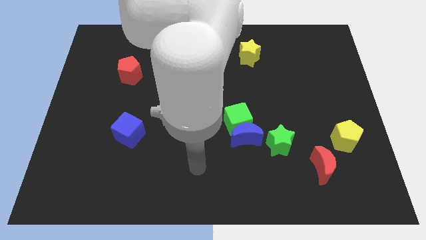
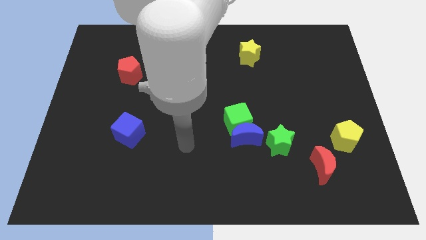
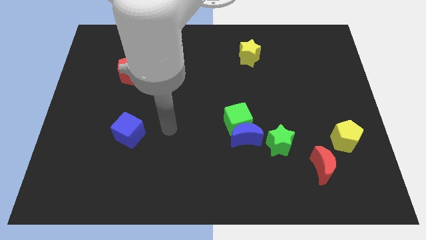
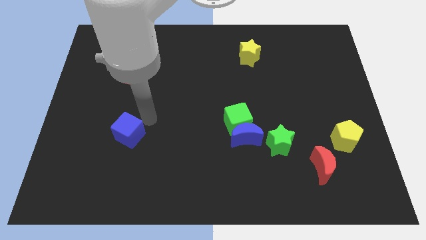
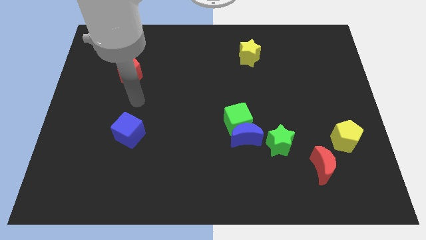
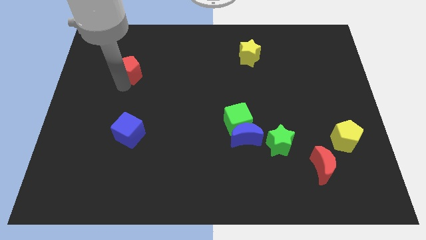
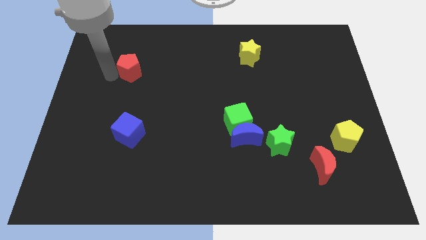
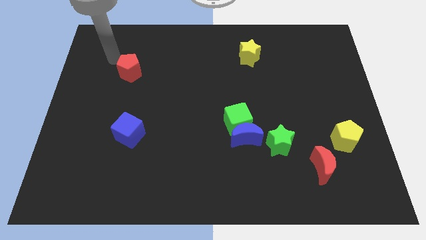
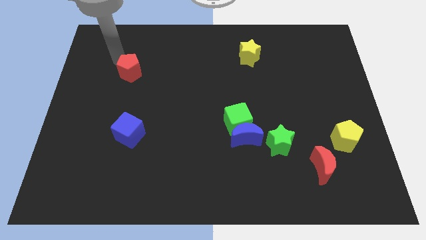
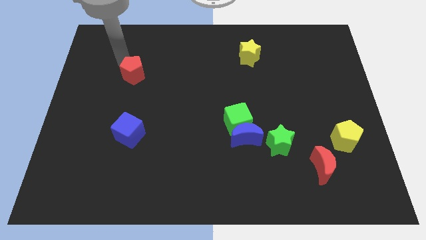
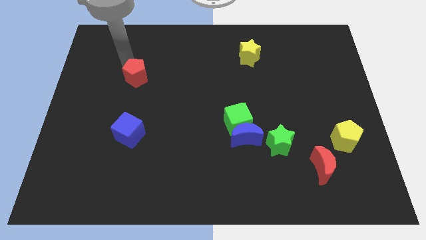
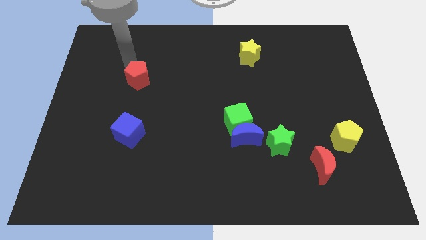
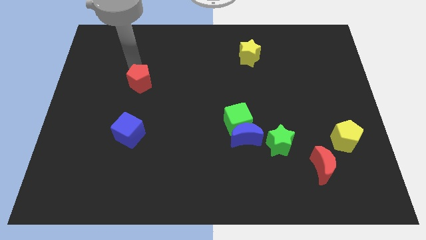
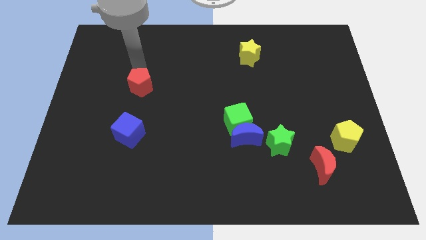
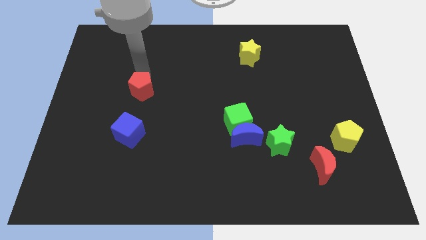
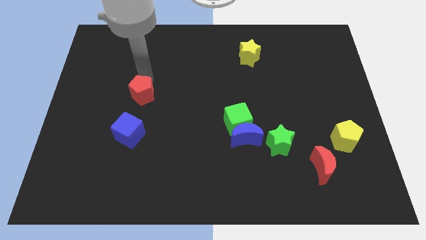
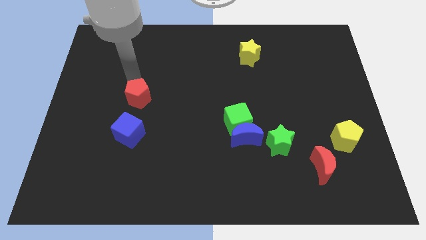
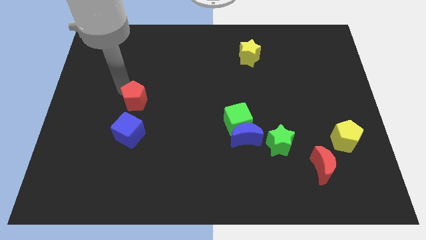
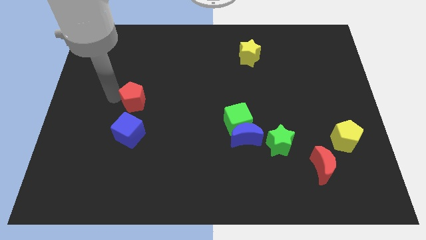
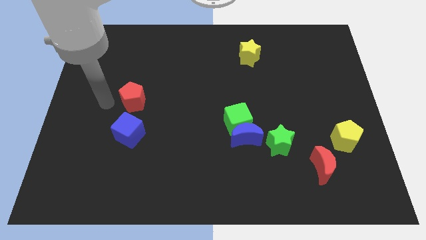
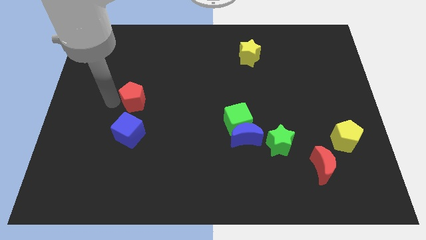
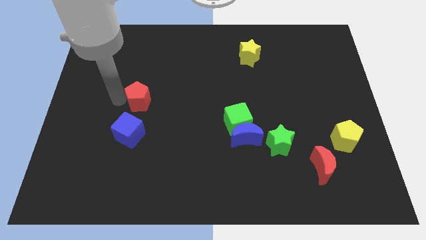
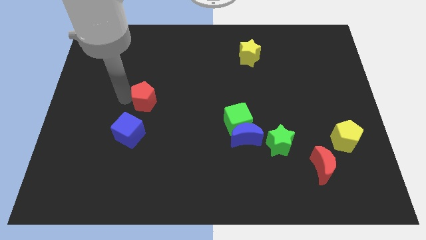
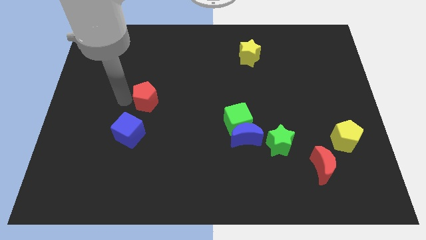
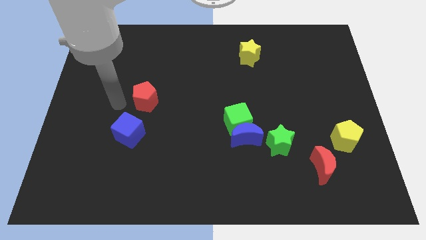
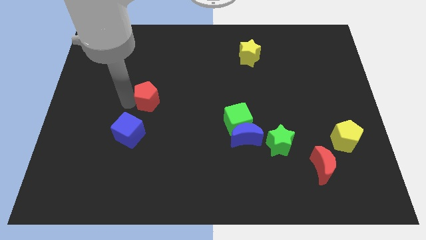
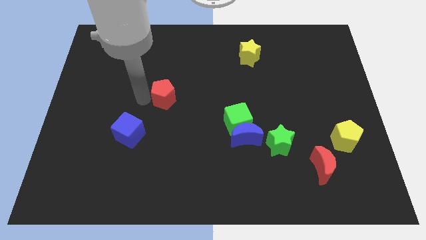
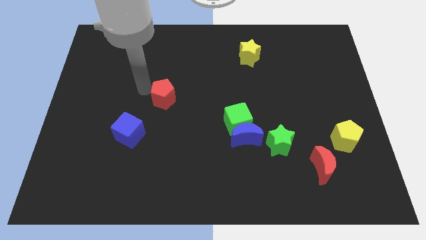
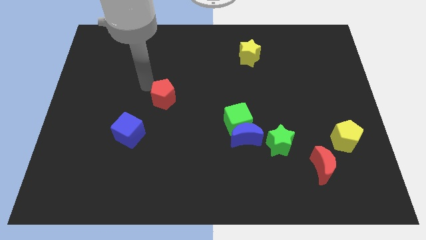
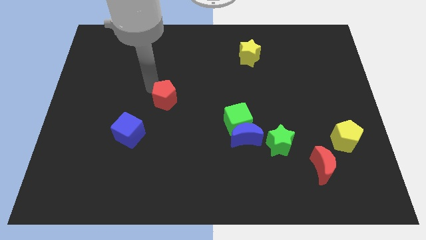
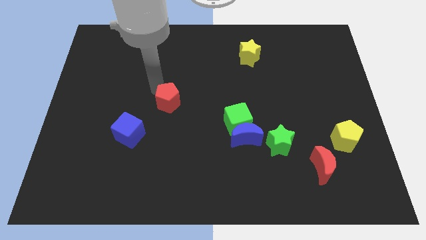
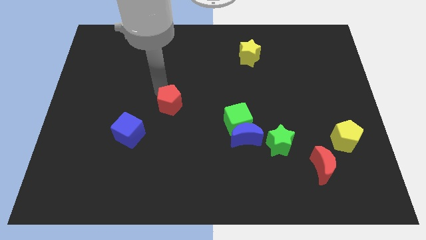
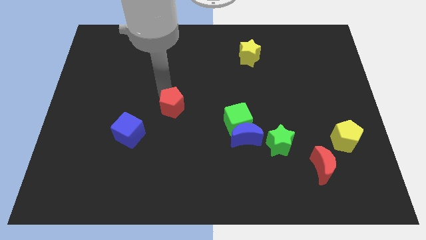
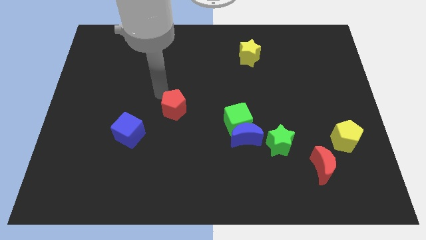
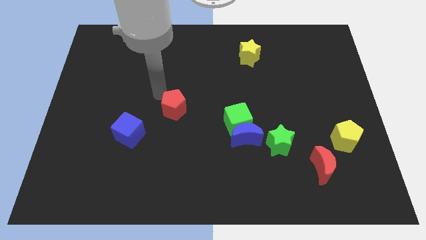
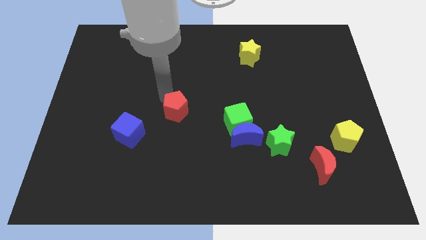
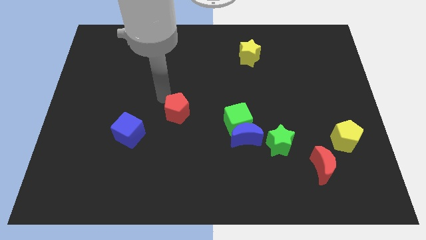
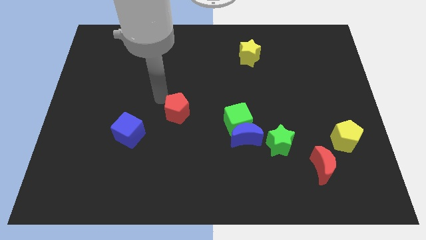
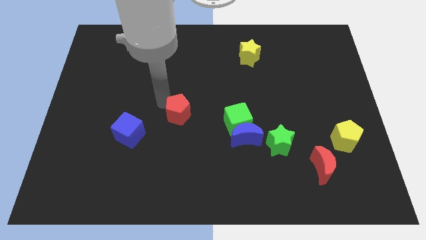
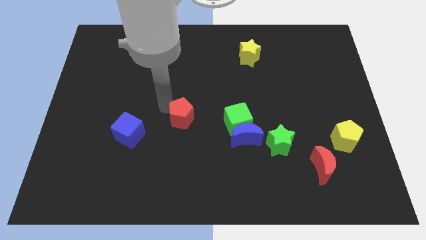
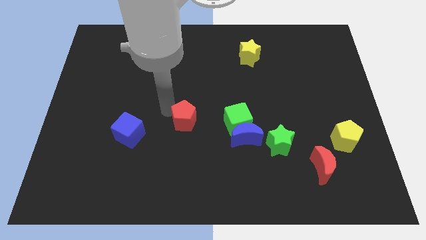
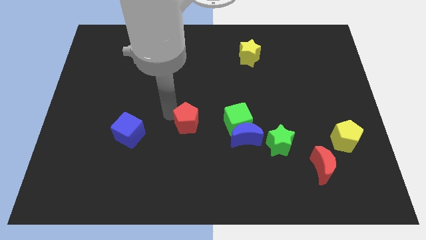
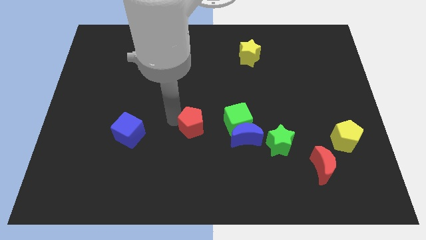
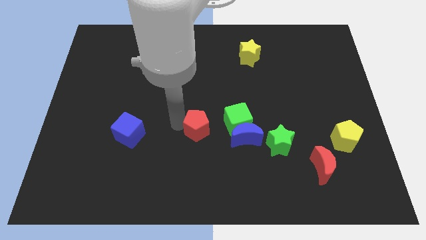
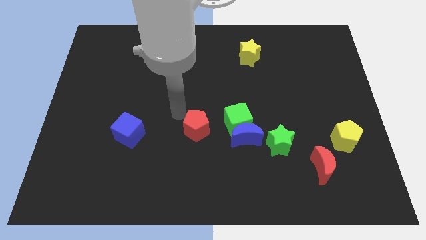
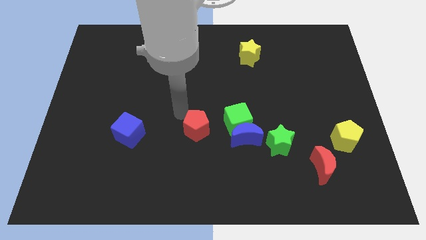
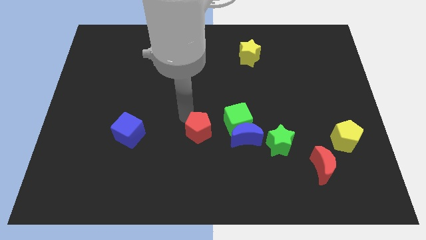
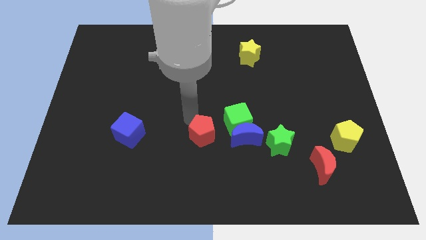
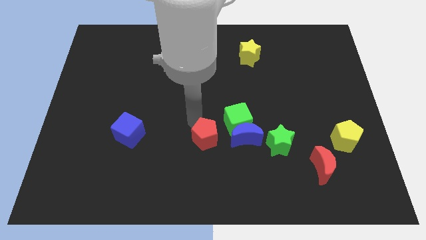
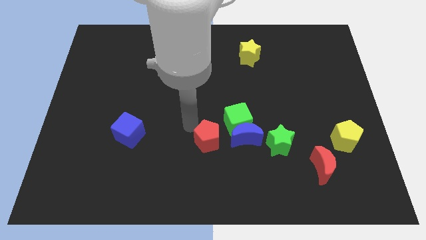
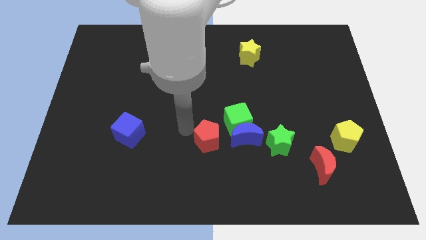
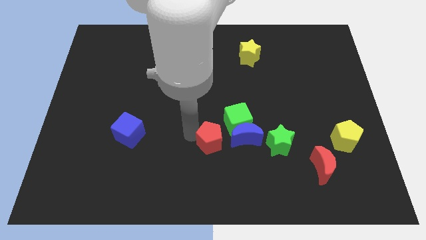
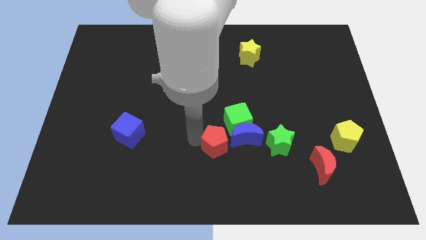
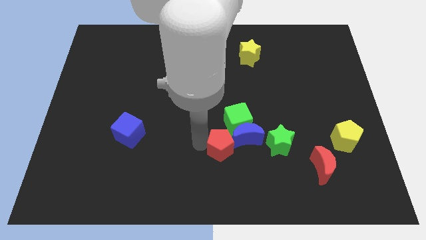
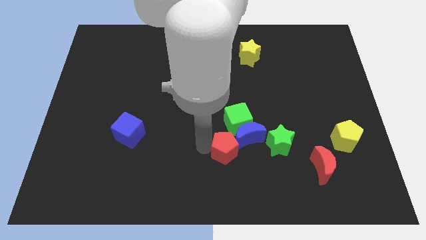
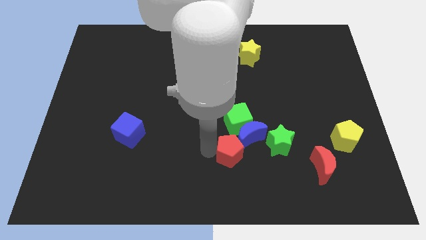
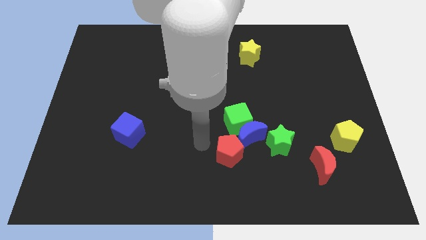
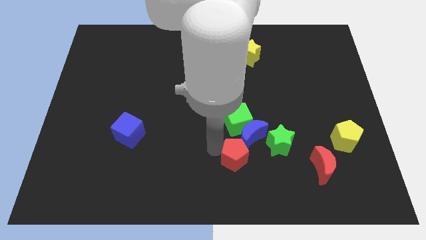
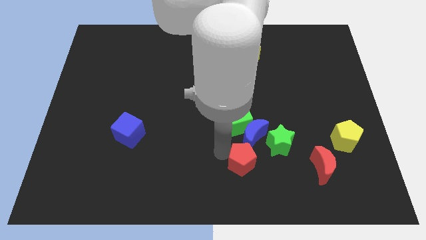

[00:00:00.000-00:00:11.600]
put the red pentagon diagonally down and to the left of the green star

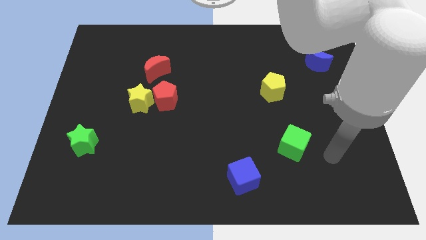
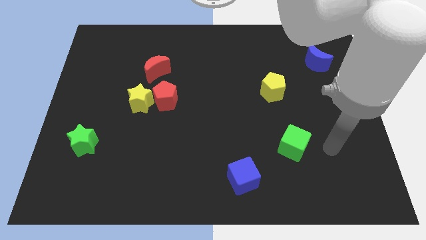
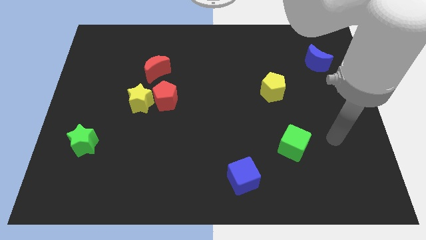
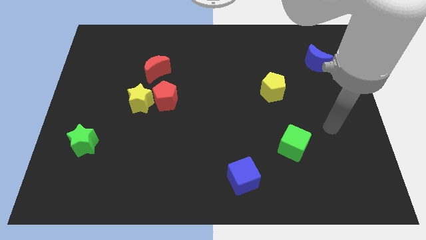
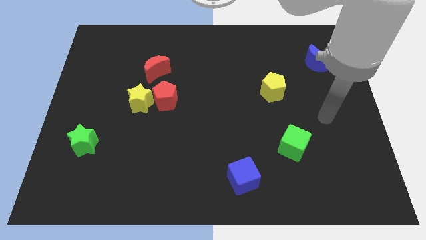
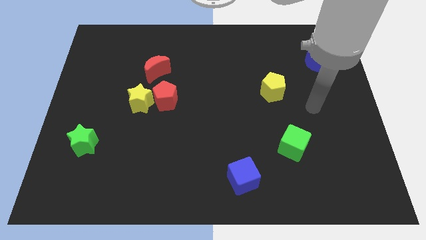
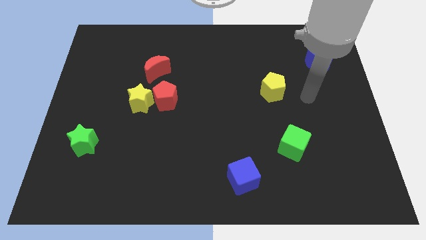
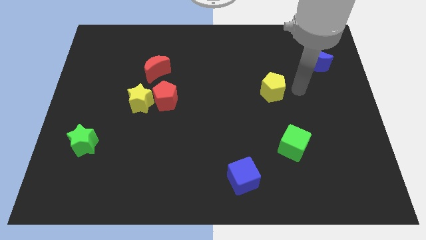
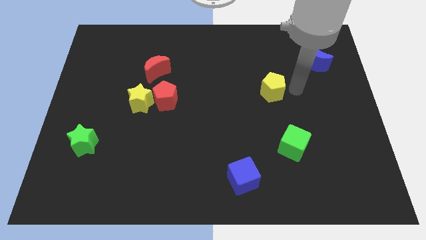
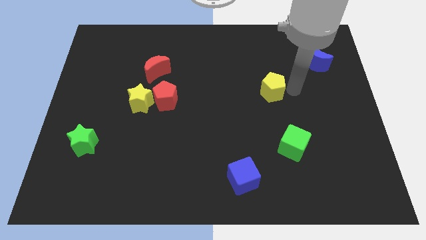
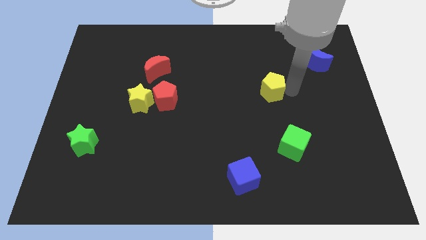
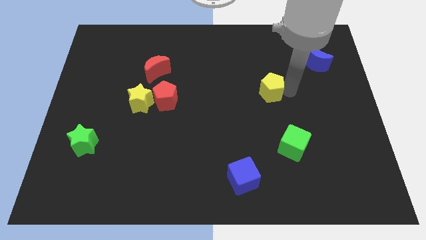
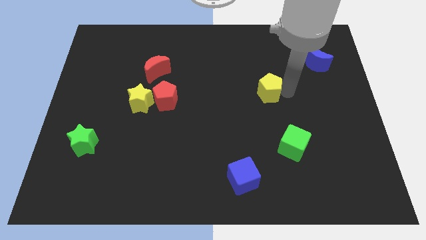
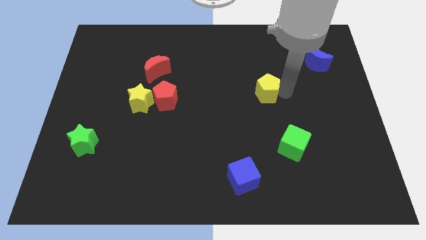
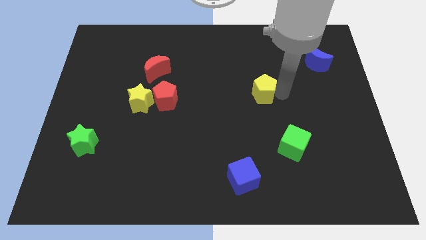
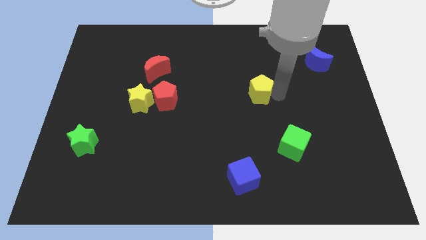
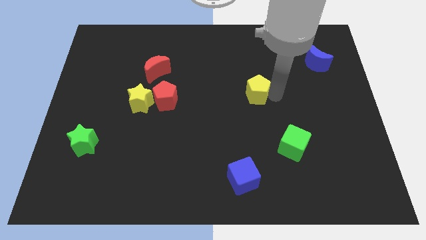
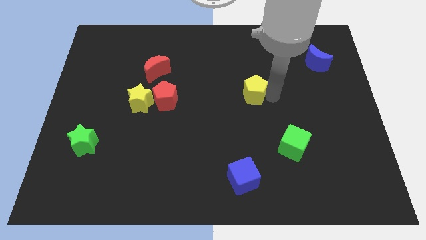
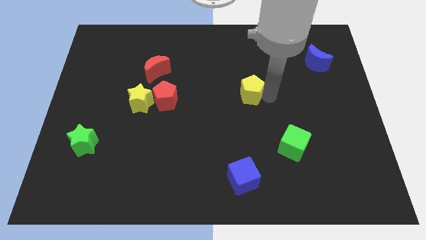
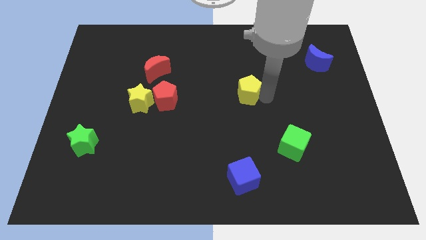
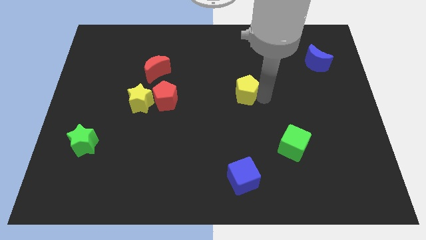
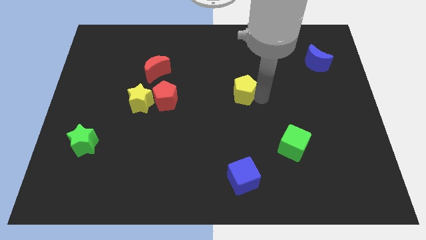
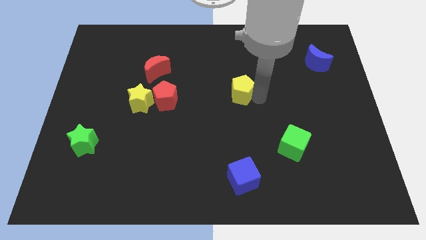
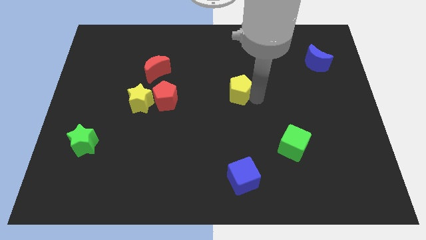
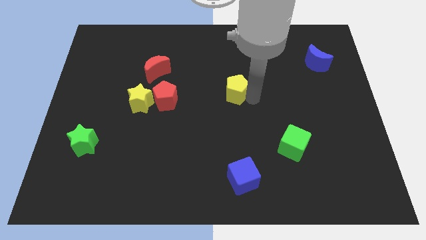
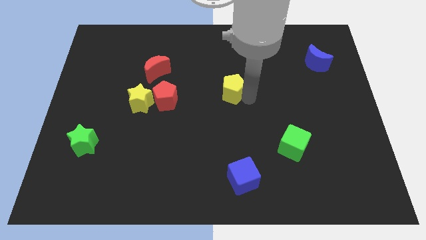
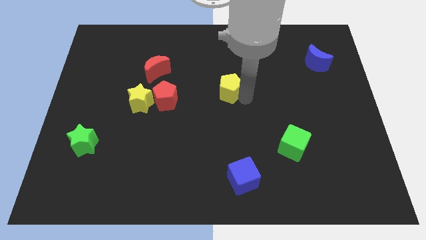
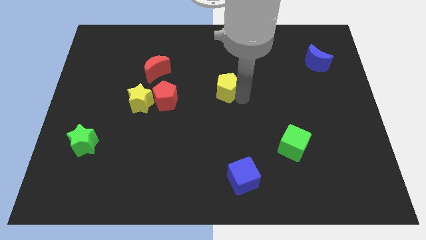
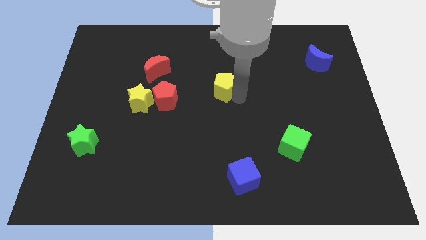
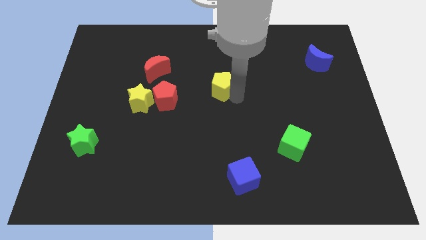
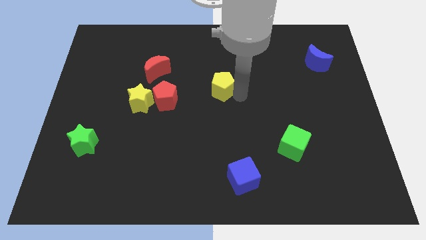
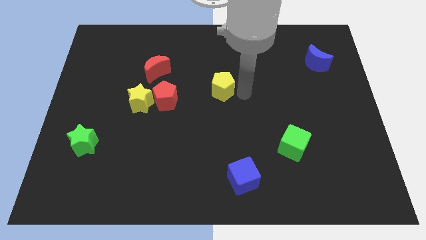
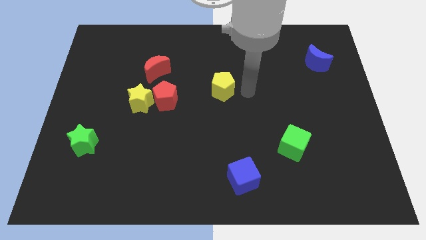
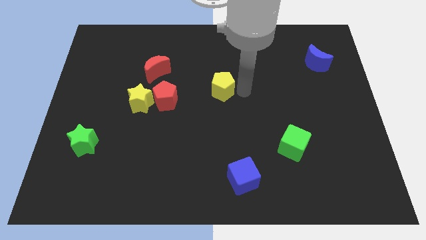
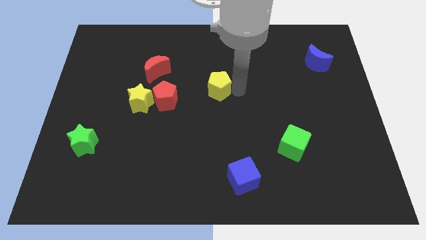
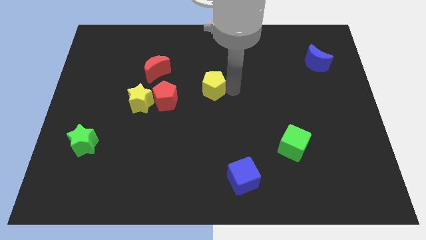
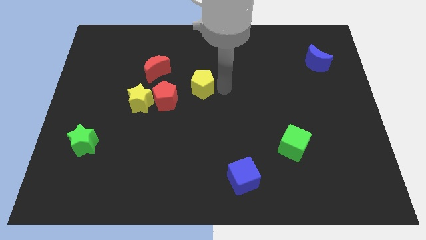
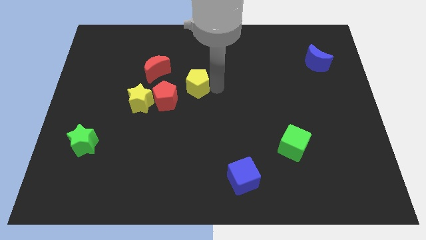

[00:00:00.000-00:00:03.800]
push the yellow pentagon diagonally down and to the right of the red moon
